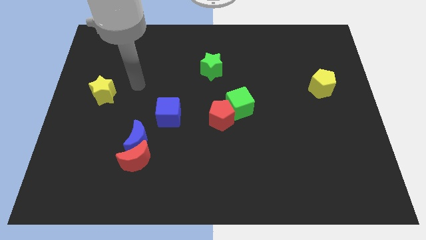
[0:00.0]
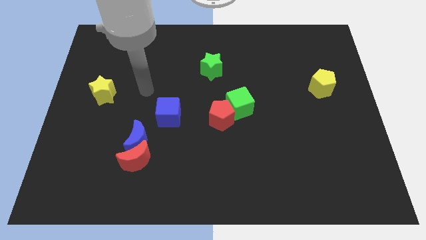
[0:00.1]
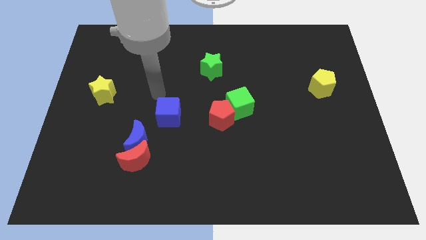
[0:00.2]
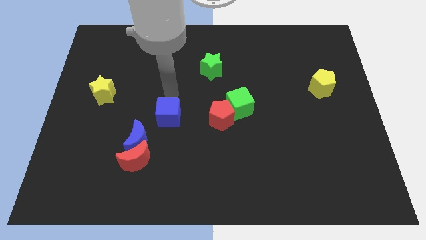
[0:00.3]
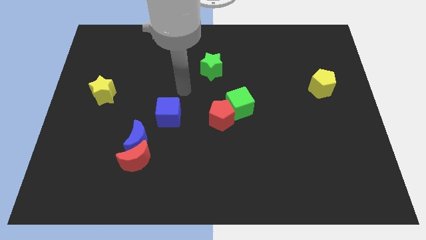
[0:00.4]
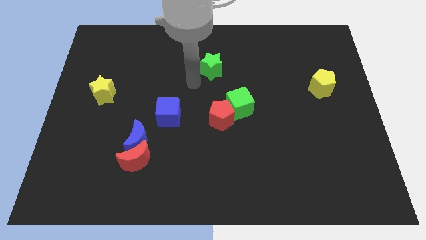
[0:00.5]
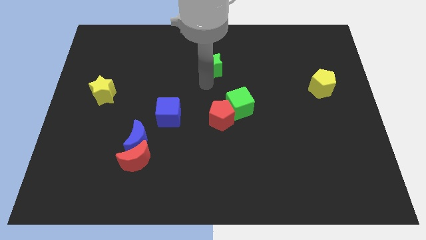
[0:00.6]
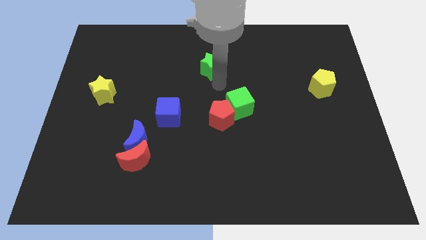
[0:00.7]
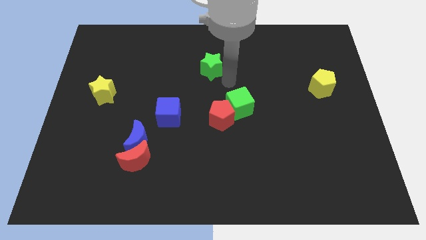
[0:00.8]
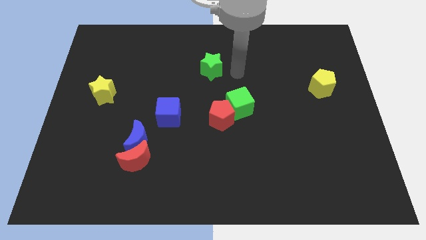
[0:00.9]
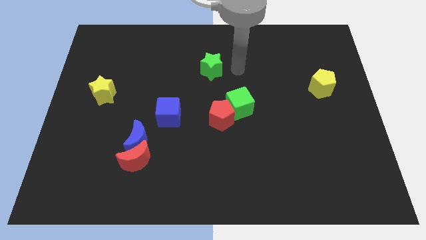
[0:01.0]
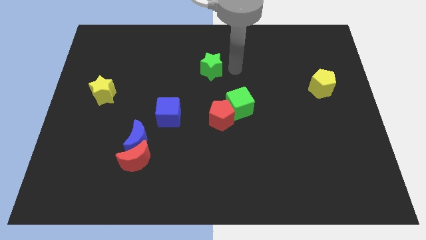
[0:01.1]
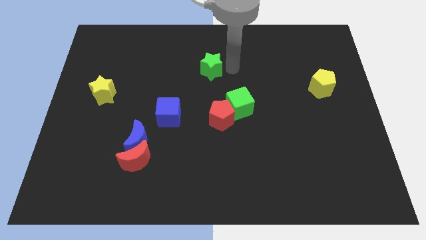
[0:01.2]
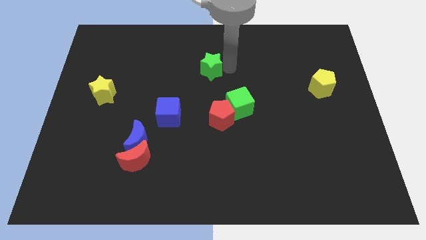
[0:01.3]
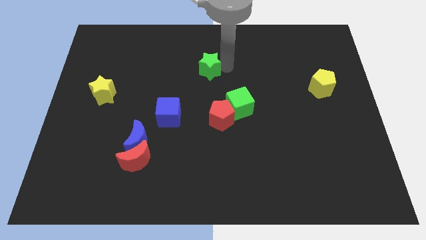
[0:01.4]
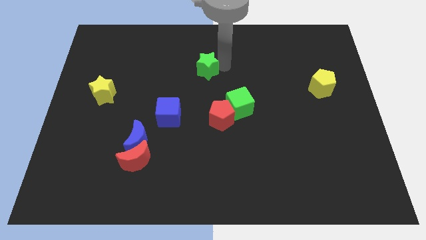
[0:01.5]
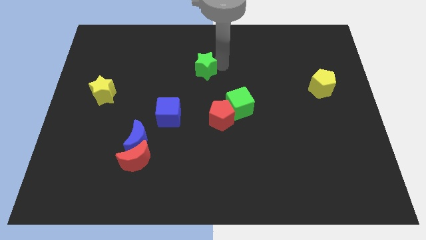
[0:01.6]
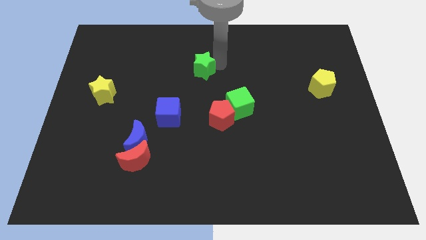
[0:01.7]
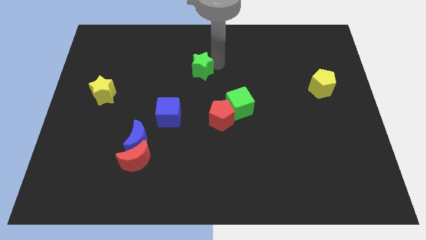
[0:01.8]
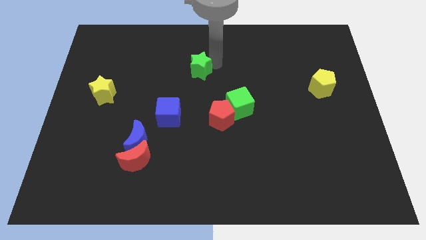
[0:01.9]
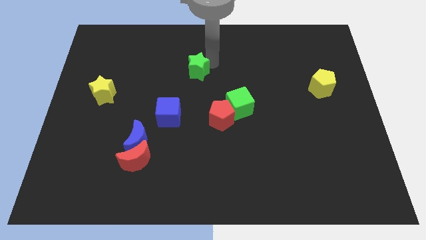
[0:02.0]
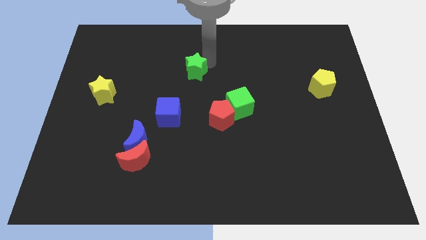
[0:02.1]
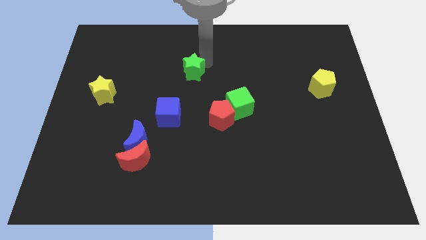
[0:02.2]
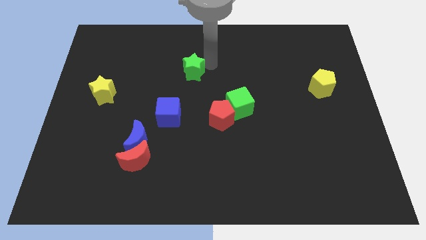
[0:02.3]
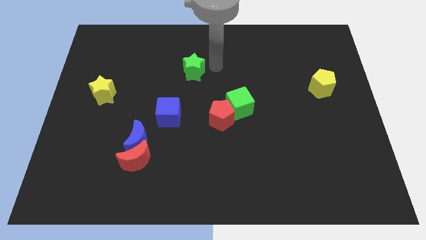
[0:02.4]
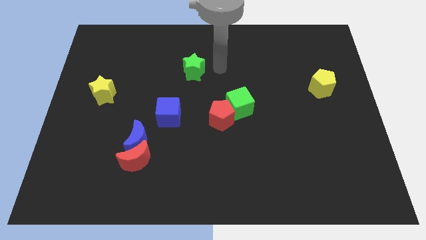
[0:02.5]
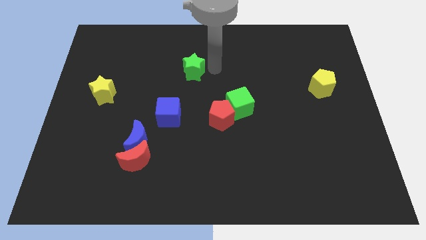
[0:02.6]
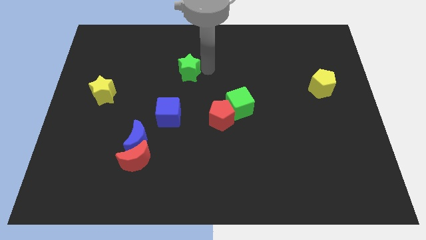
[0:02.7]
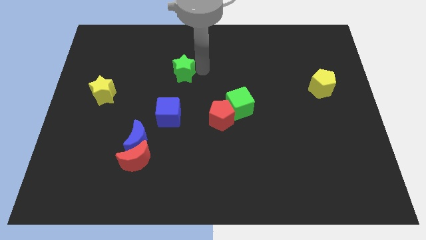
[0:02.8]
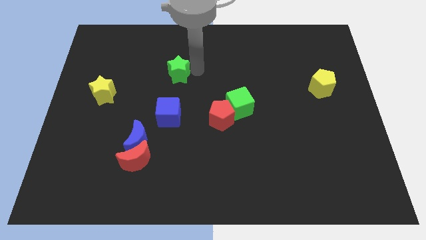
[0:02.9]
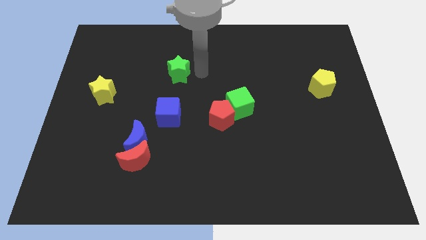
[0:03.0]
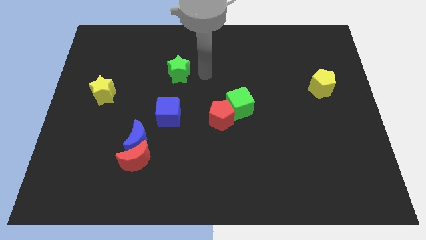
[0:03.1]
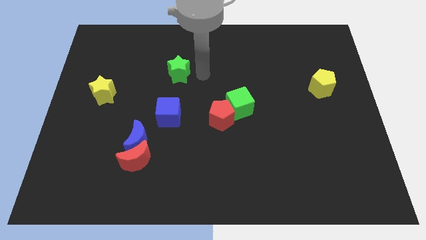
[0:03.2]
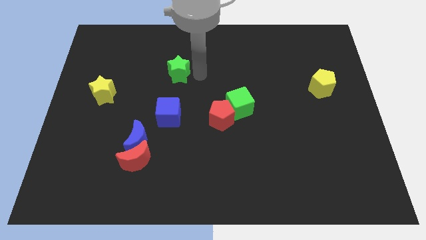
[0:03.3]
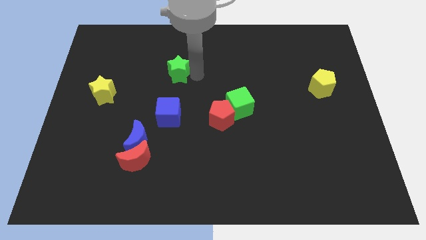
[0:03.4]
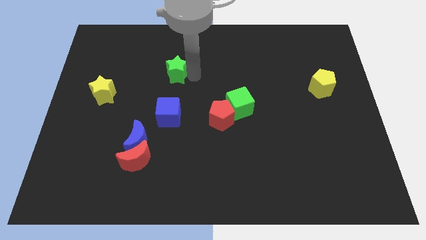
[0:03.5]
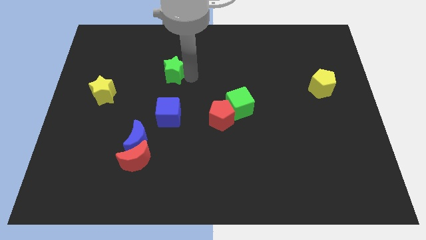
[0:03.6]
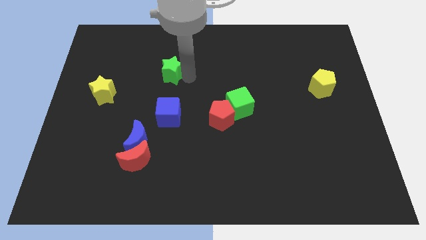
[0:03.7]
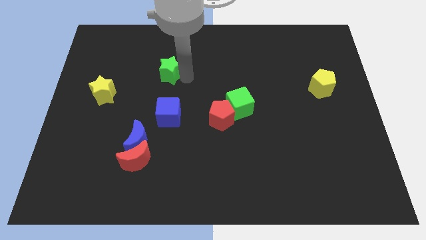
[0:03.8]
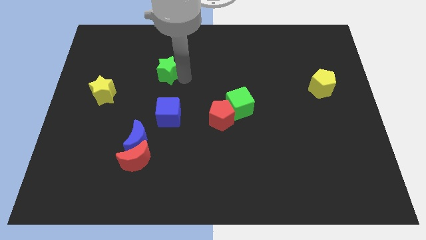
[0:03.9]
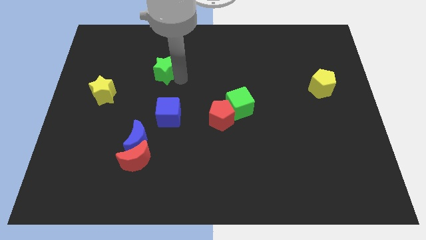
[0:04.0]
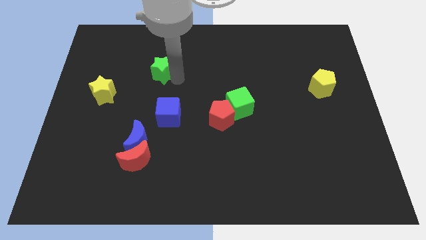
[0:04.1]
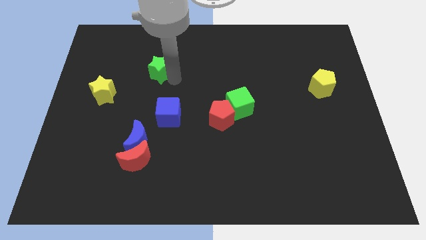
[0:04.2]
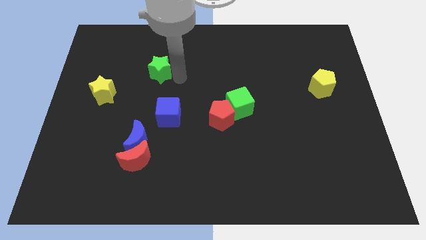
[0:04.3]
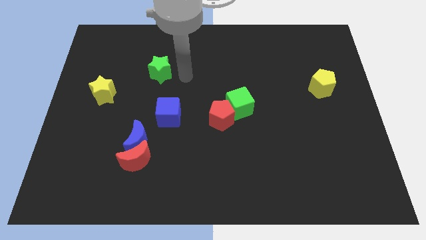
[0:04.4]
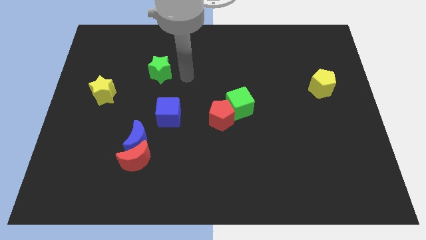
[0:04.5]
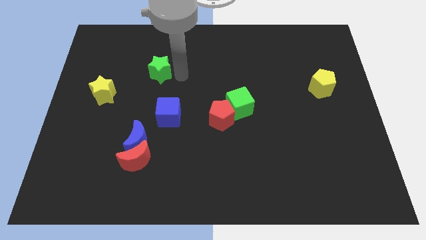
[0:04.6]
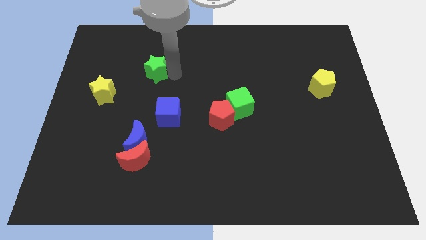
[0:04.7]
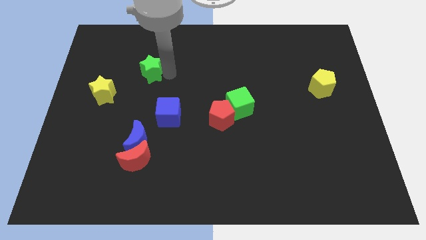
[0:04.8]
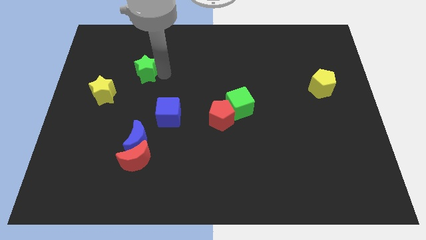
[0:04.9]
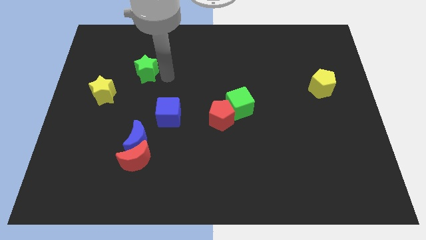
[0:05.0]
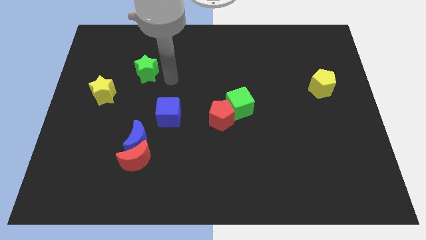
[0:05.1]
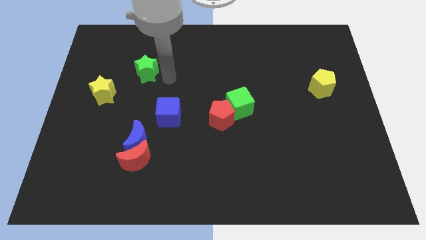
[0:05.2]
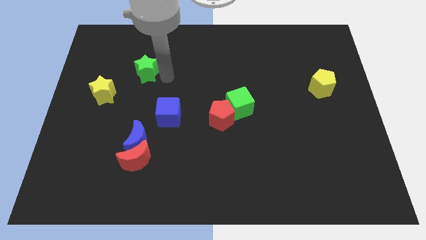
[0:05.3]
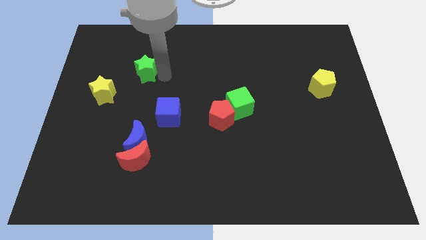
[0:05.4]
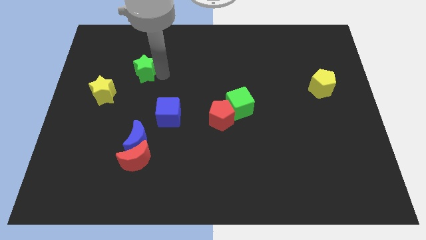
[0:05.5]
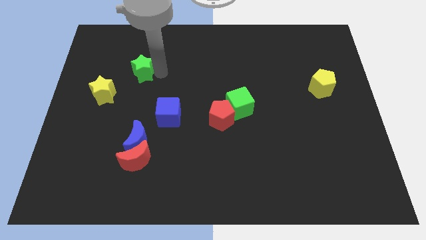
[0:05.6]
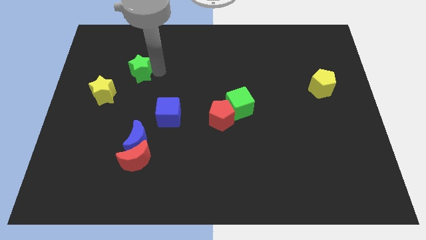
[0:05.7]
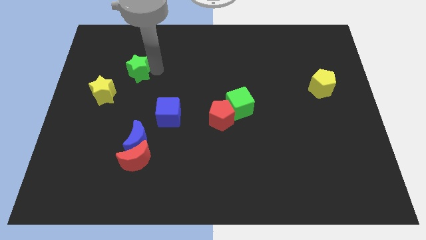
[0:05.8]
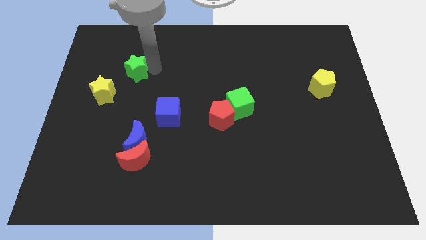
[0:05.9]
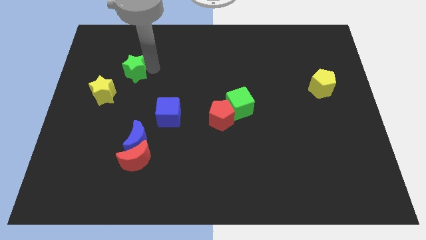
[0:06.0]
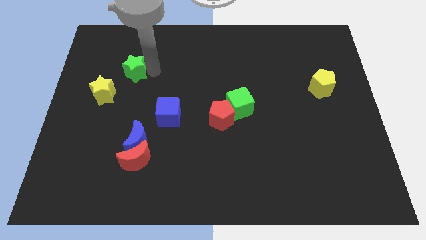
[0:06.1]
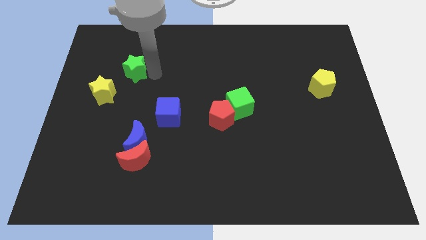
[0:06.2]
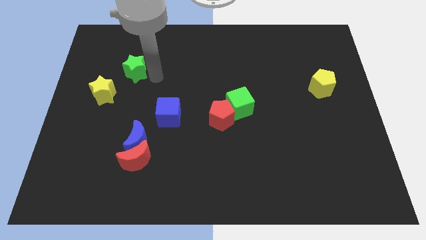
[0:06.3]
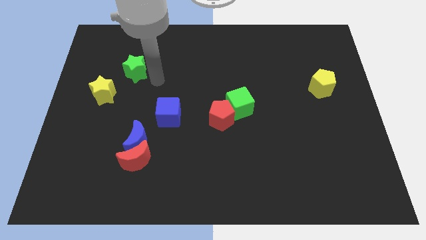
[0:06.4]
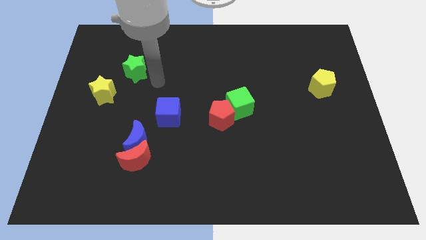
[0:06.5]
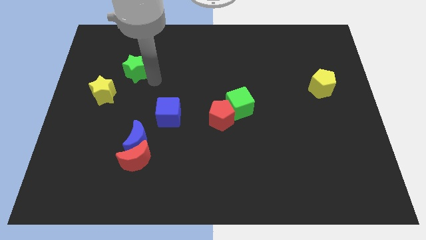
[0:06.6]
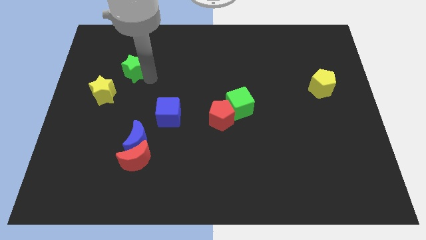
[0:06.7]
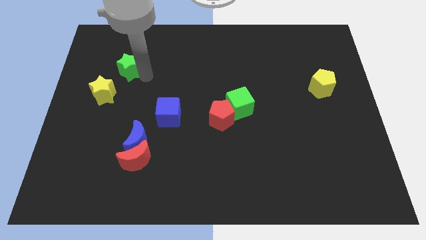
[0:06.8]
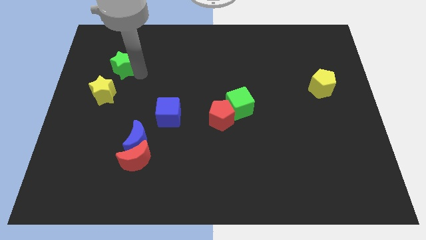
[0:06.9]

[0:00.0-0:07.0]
push the green star to the top side of the yellow star
